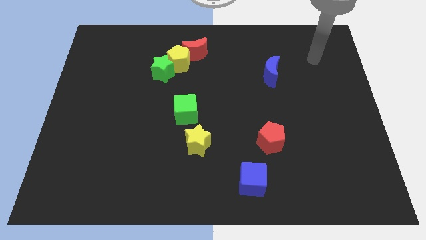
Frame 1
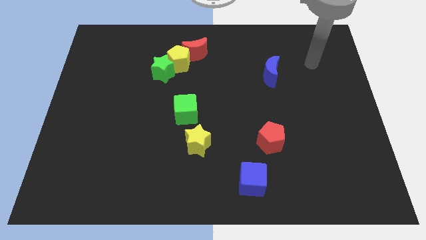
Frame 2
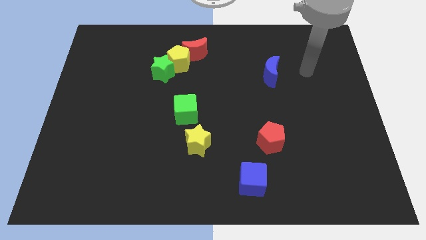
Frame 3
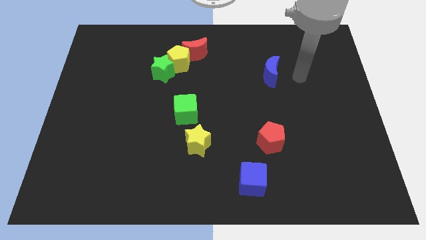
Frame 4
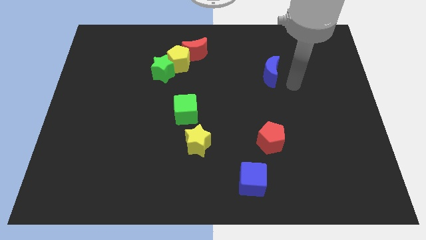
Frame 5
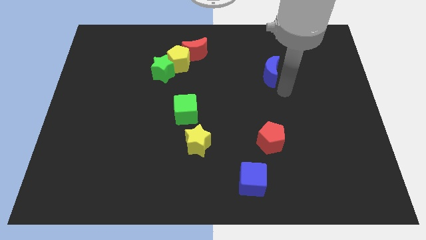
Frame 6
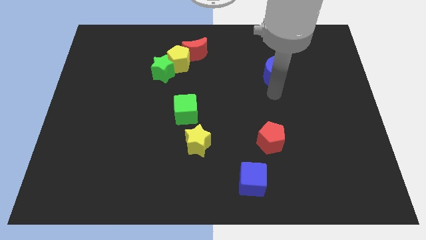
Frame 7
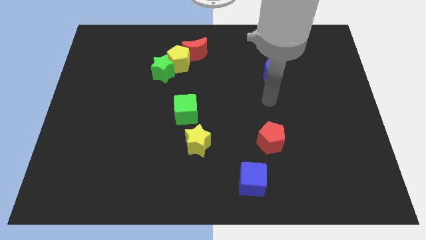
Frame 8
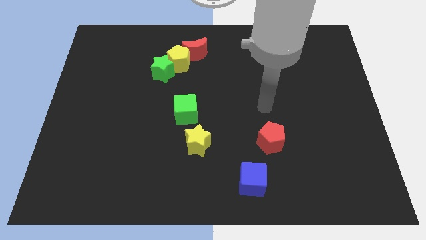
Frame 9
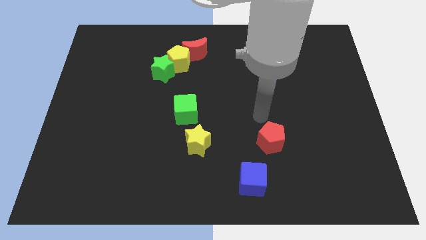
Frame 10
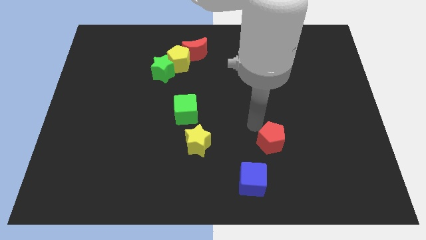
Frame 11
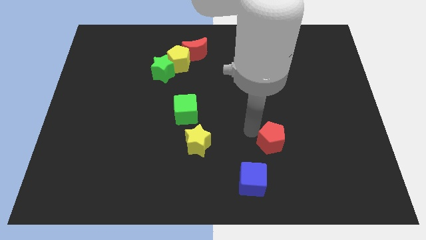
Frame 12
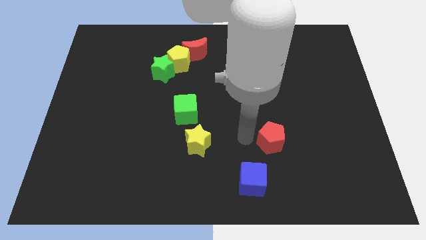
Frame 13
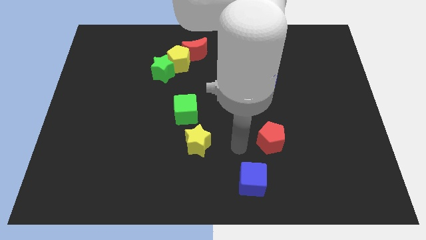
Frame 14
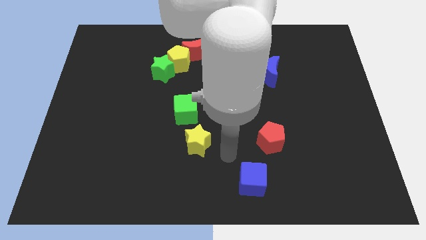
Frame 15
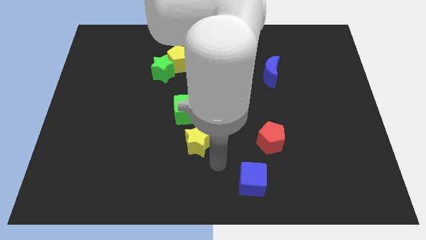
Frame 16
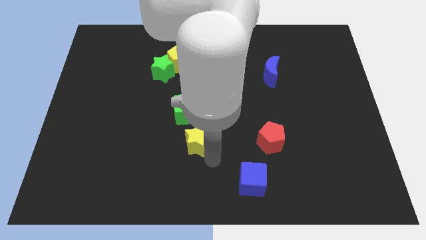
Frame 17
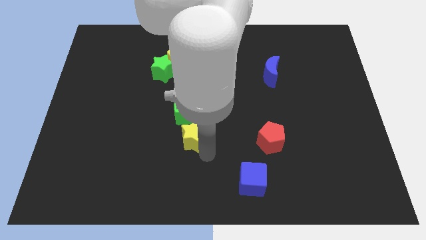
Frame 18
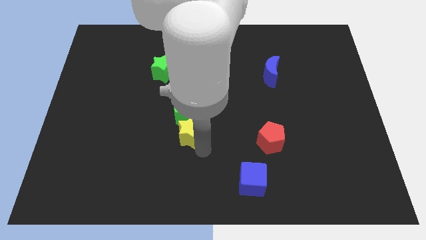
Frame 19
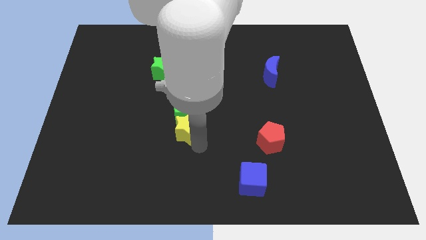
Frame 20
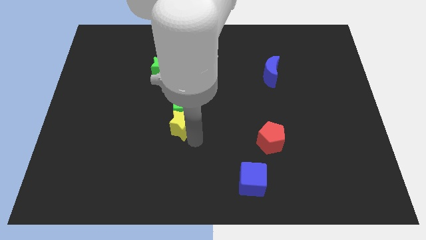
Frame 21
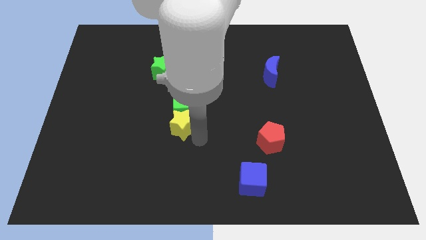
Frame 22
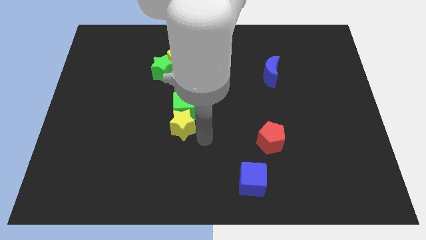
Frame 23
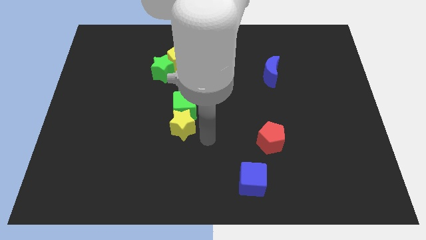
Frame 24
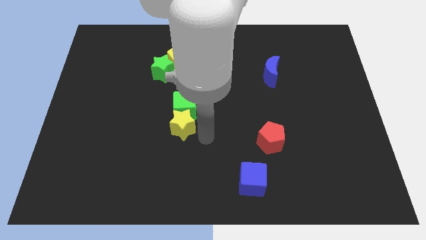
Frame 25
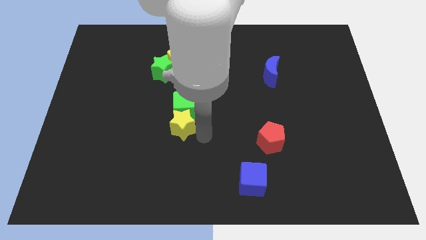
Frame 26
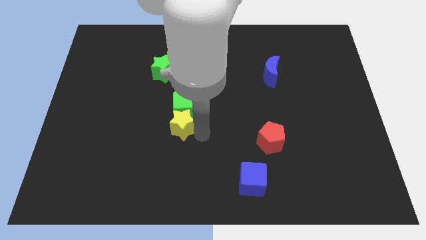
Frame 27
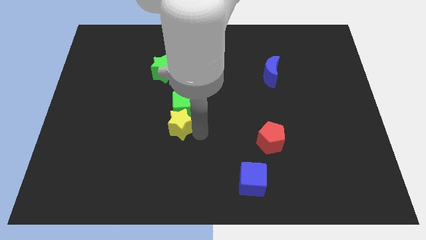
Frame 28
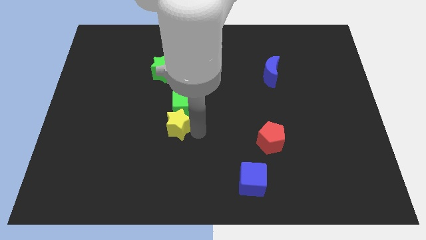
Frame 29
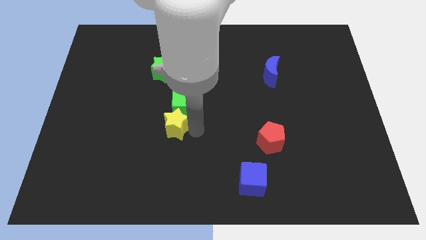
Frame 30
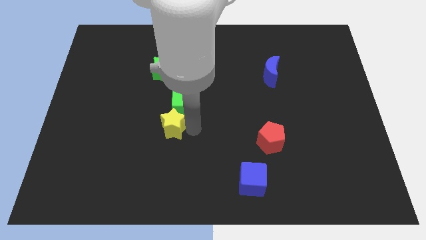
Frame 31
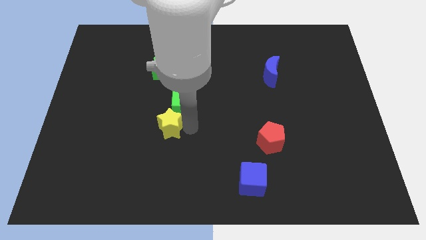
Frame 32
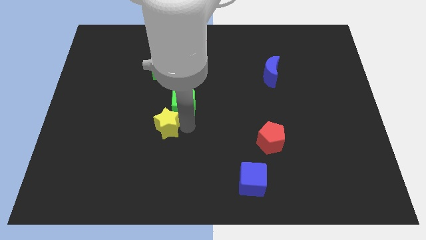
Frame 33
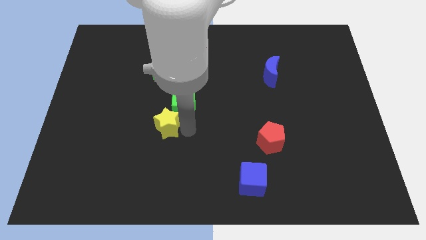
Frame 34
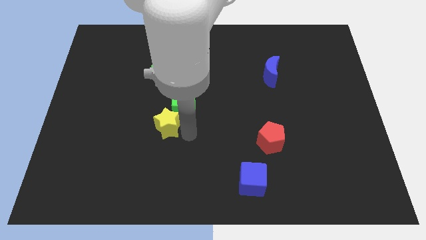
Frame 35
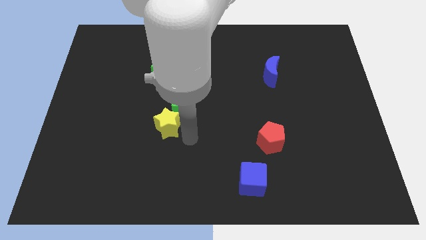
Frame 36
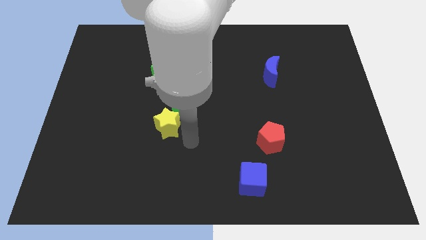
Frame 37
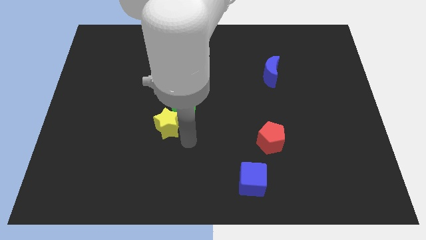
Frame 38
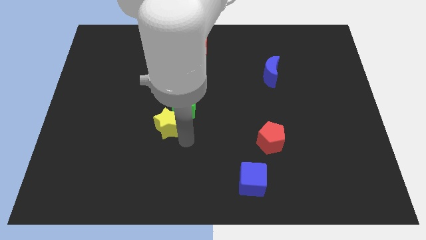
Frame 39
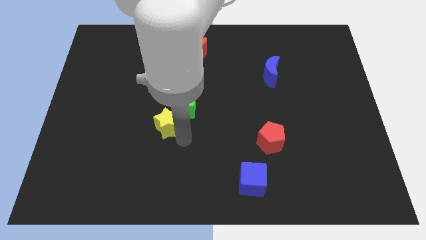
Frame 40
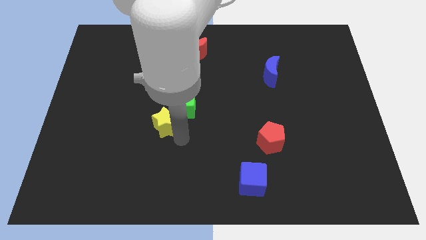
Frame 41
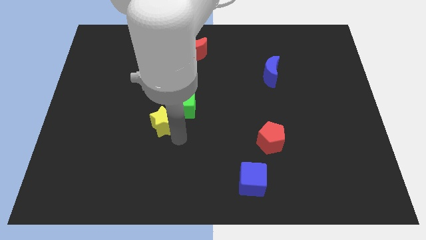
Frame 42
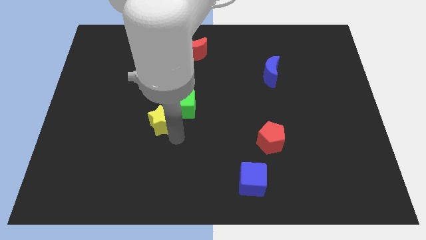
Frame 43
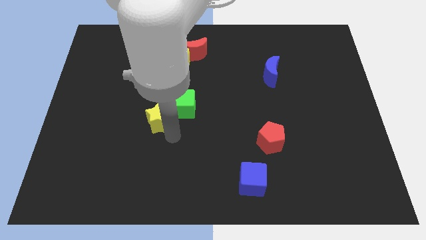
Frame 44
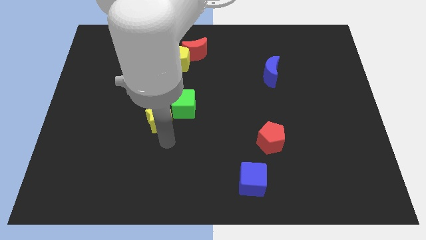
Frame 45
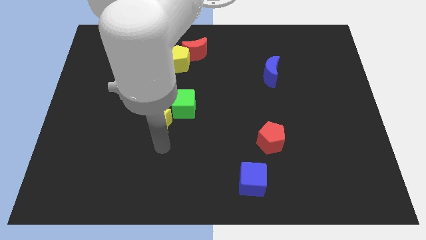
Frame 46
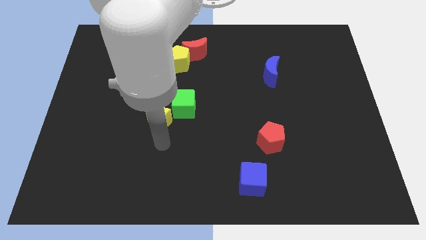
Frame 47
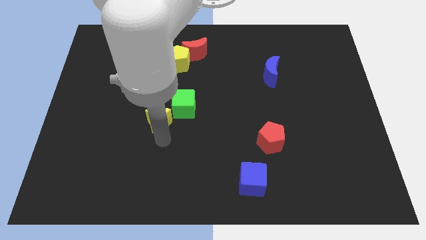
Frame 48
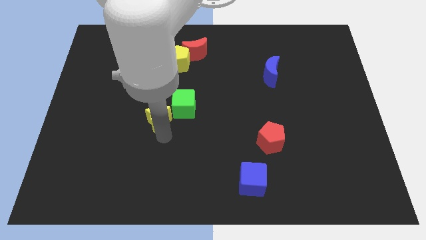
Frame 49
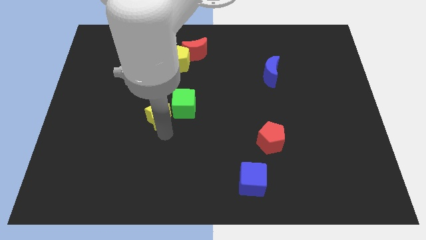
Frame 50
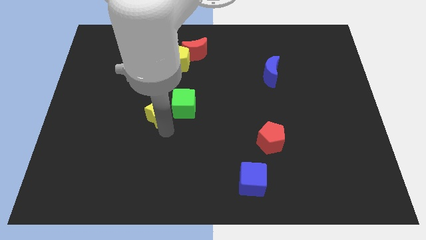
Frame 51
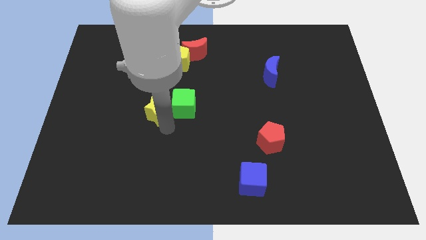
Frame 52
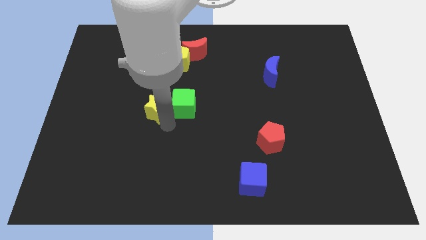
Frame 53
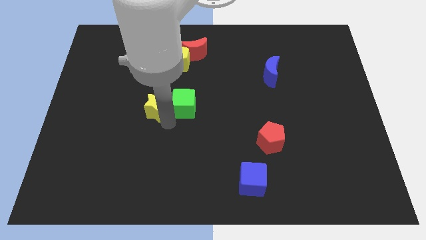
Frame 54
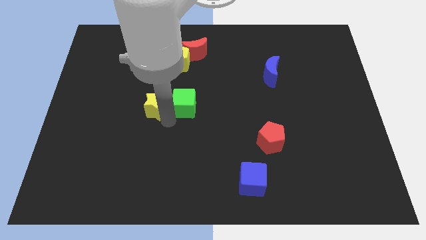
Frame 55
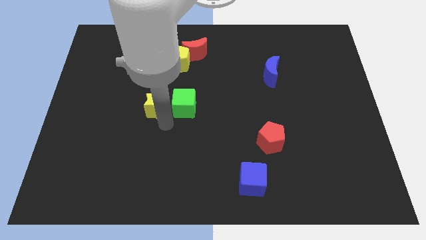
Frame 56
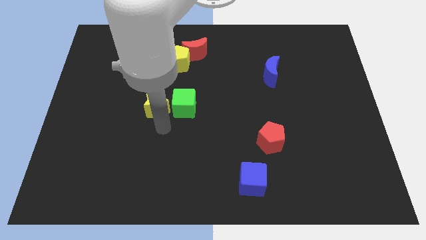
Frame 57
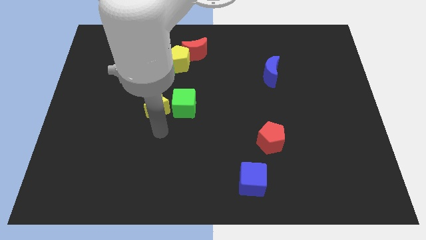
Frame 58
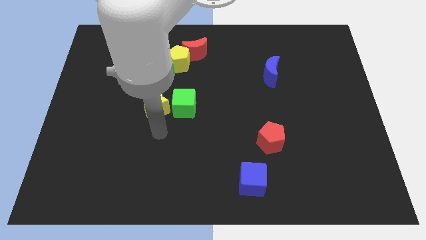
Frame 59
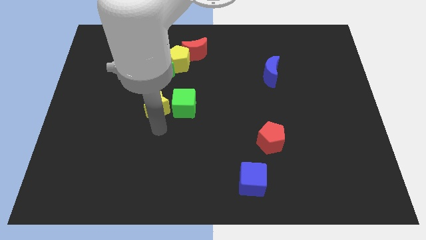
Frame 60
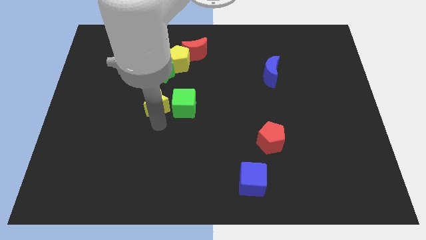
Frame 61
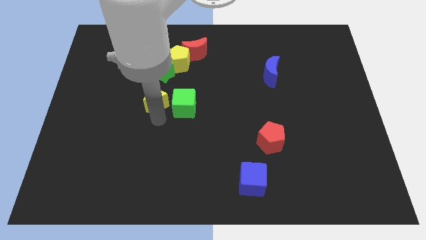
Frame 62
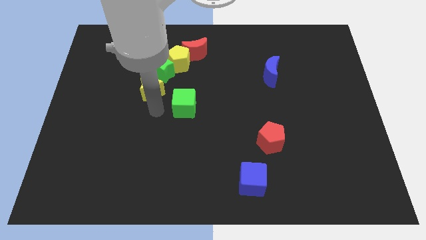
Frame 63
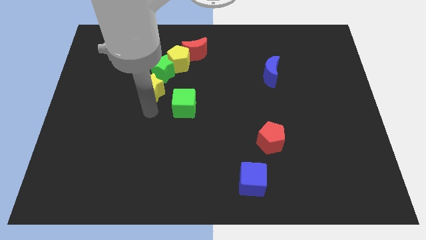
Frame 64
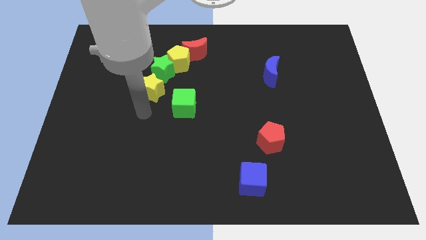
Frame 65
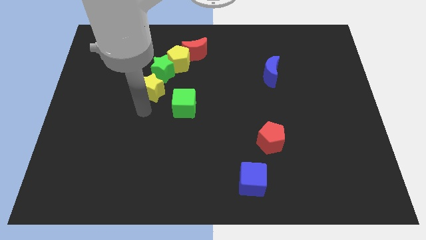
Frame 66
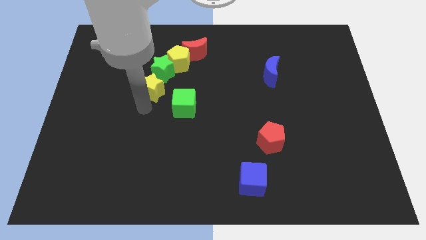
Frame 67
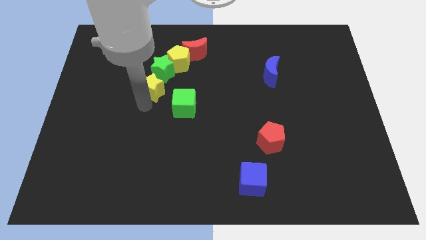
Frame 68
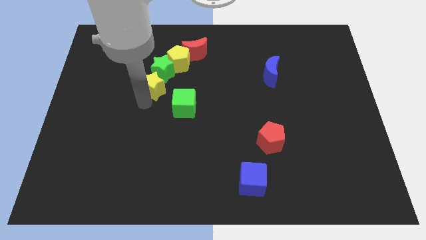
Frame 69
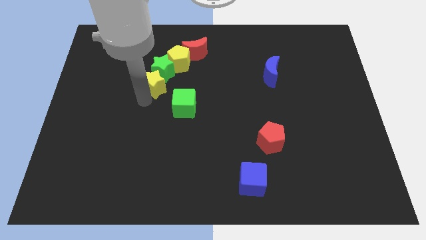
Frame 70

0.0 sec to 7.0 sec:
push the yellow star towards the green star
